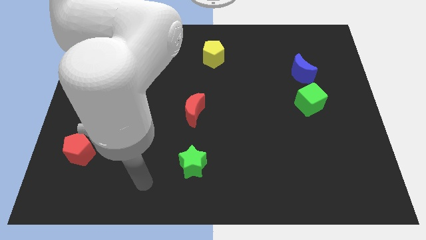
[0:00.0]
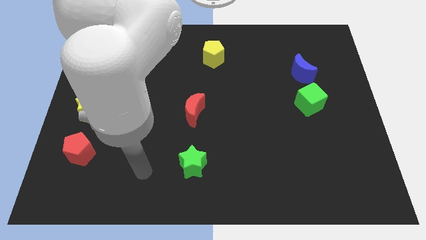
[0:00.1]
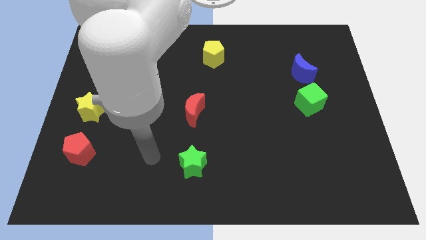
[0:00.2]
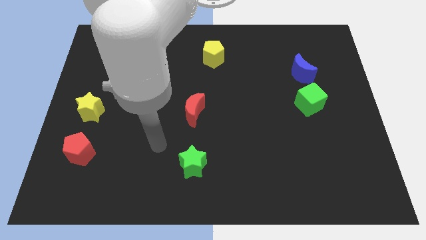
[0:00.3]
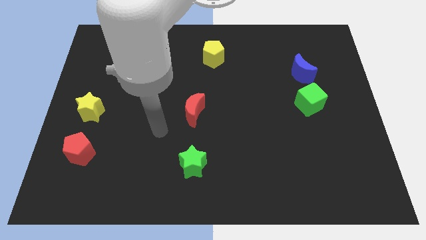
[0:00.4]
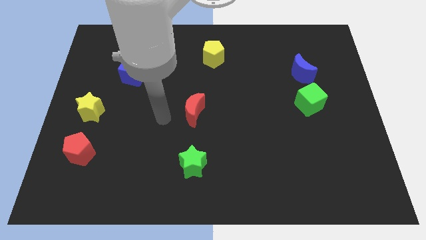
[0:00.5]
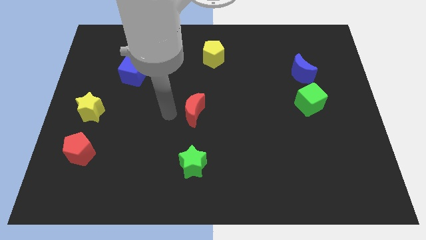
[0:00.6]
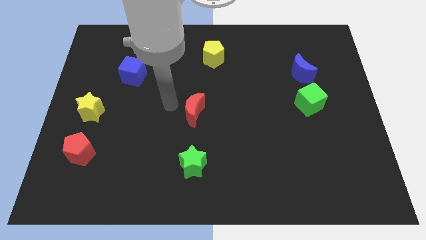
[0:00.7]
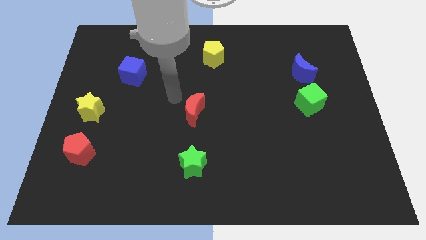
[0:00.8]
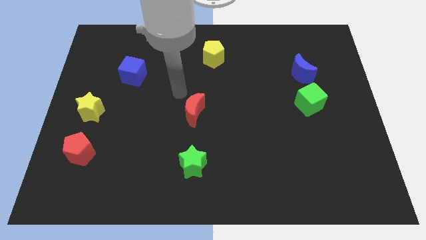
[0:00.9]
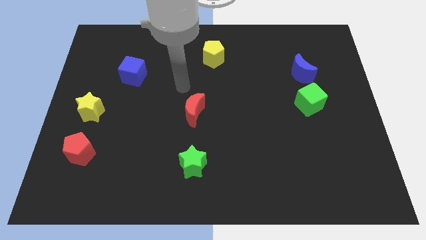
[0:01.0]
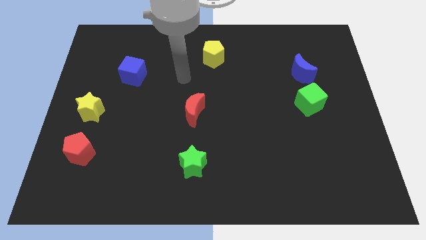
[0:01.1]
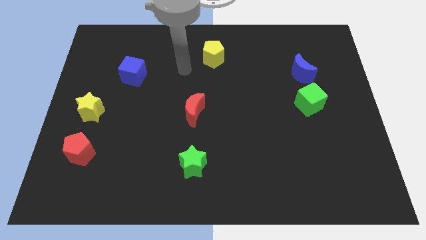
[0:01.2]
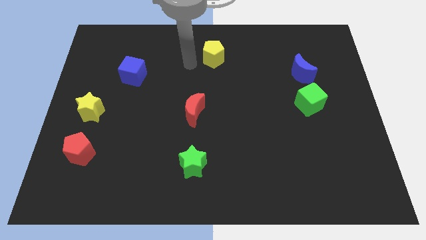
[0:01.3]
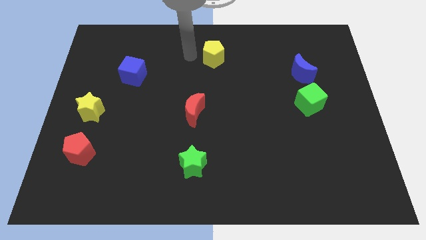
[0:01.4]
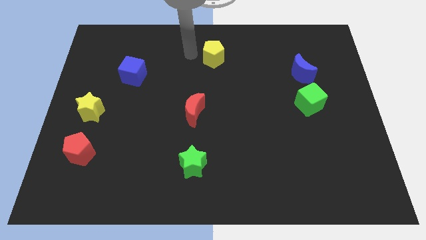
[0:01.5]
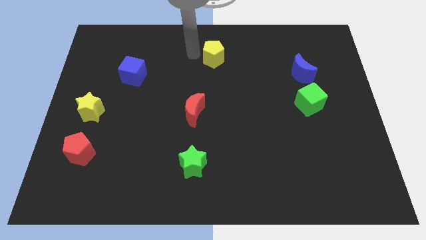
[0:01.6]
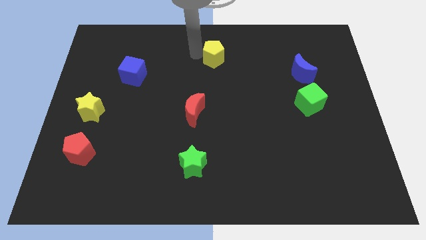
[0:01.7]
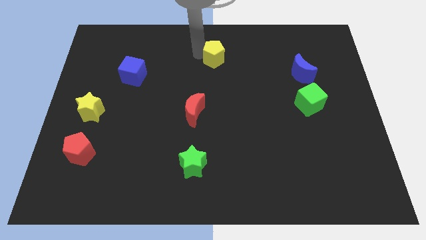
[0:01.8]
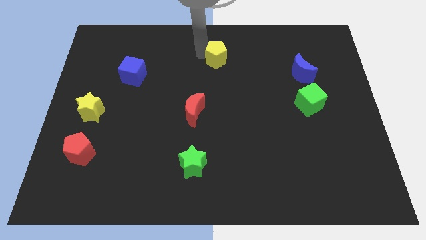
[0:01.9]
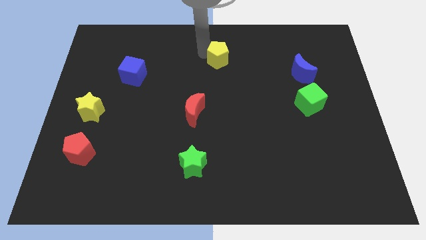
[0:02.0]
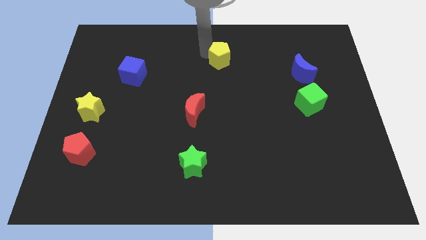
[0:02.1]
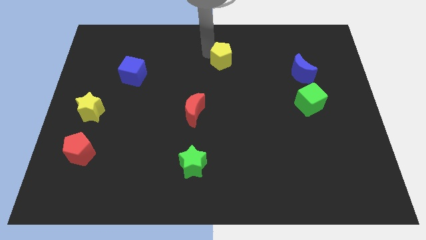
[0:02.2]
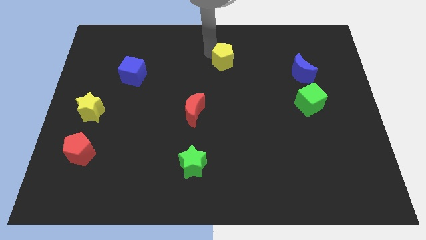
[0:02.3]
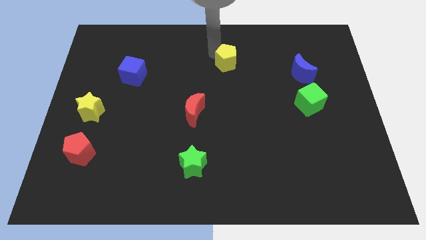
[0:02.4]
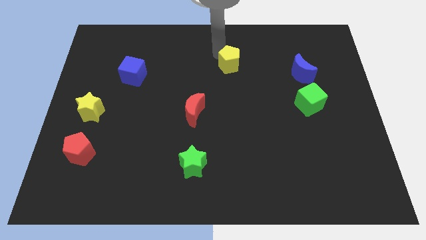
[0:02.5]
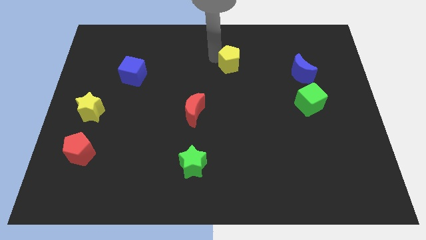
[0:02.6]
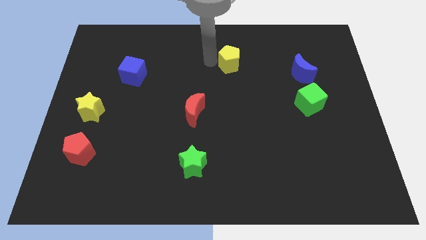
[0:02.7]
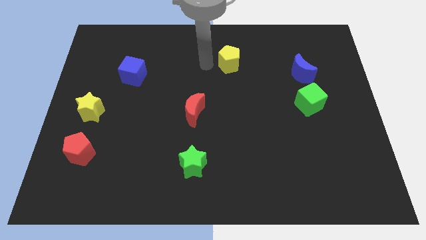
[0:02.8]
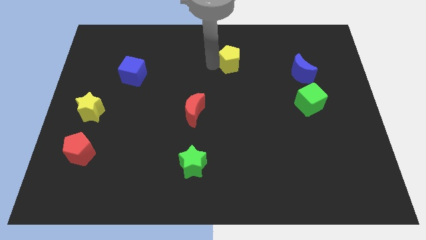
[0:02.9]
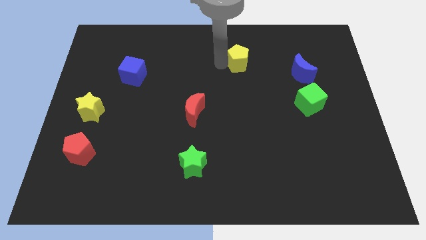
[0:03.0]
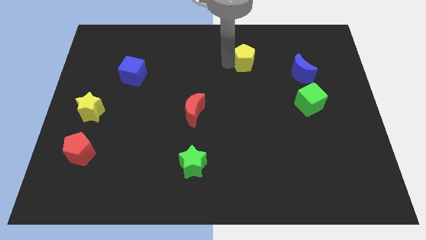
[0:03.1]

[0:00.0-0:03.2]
push the yellow pentagon right a little bit

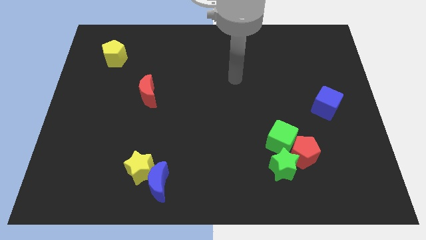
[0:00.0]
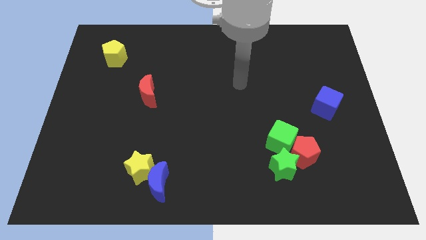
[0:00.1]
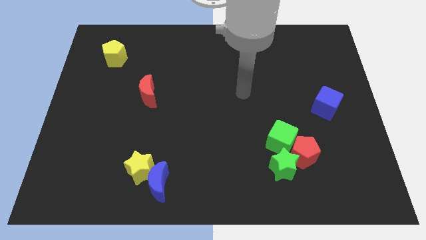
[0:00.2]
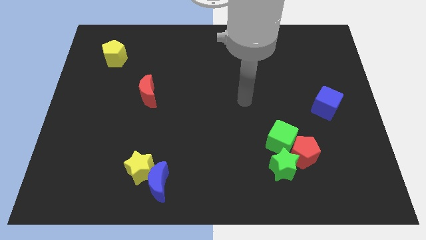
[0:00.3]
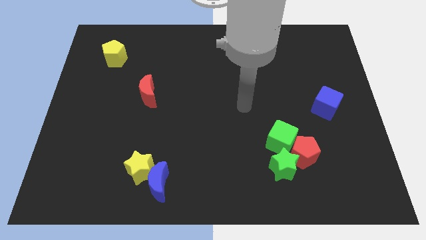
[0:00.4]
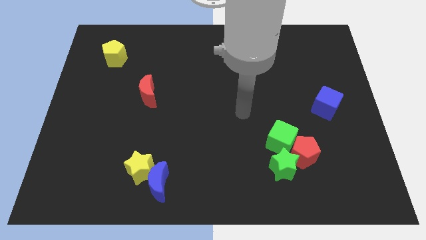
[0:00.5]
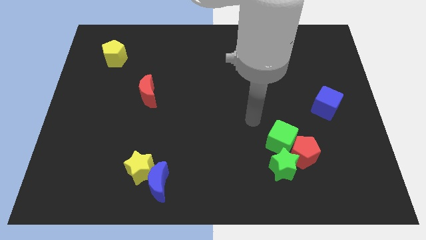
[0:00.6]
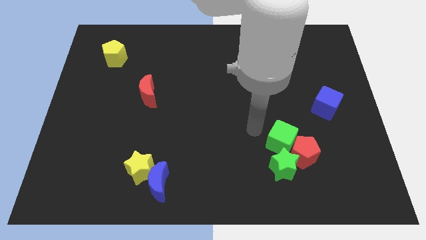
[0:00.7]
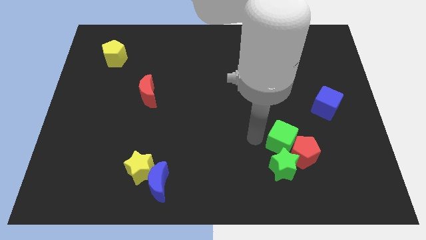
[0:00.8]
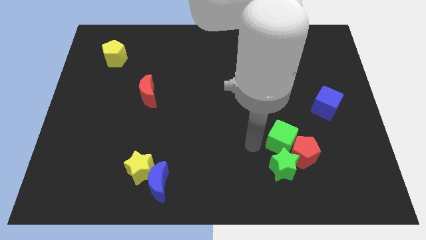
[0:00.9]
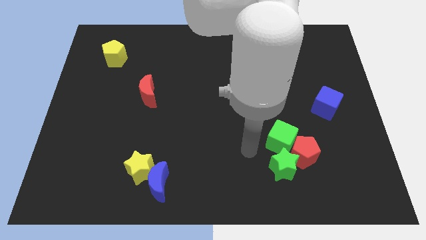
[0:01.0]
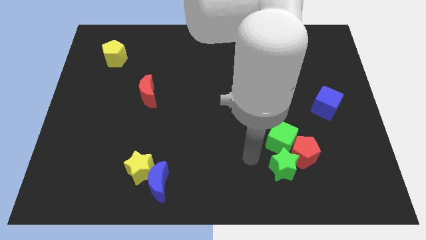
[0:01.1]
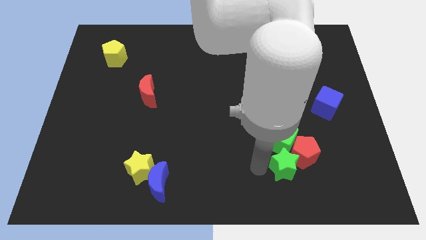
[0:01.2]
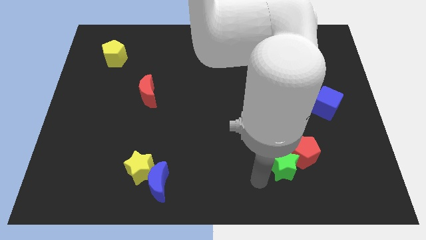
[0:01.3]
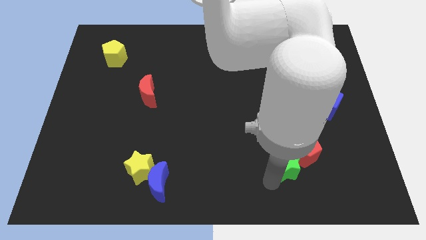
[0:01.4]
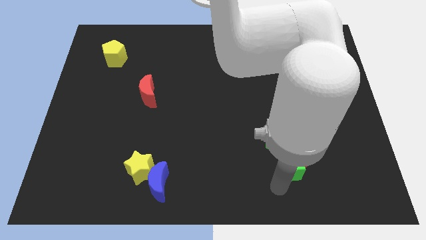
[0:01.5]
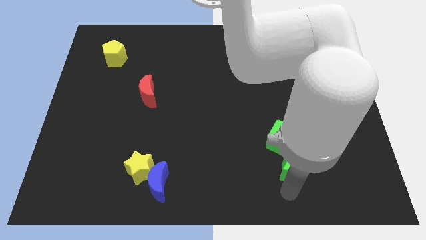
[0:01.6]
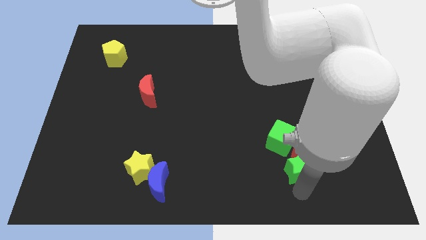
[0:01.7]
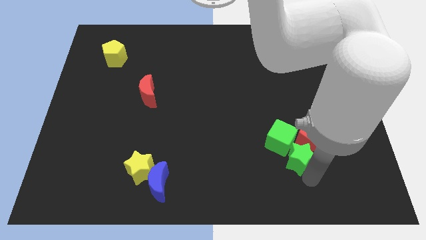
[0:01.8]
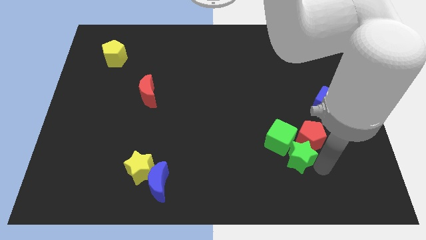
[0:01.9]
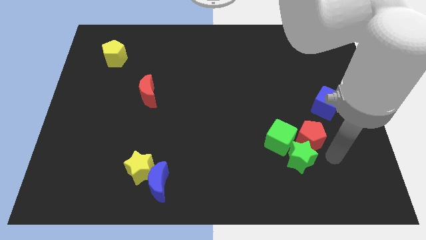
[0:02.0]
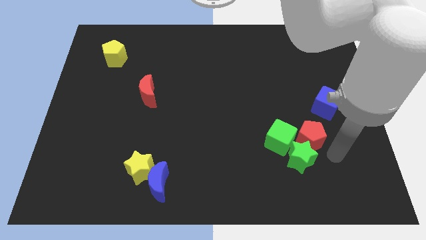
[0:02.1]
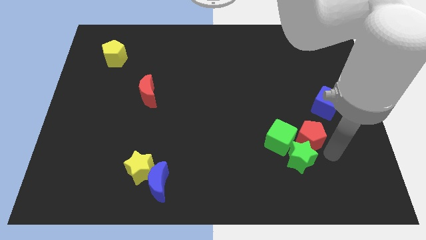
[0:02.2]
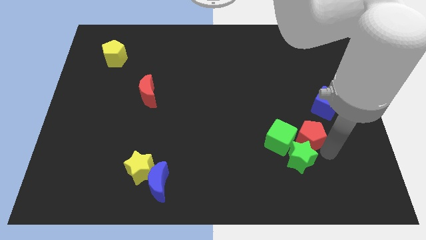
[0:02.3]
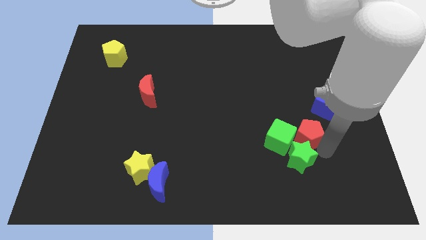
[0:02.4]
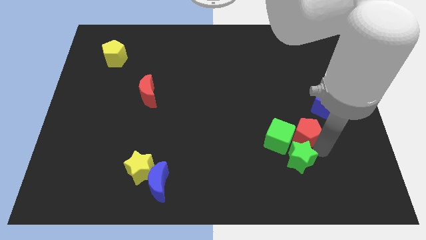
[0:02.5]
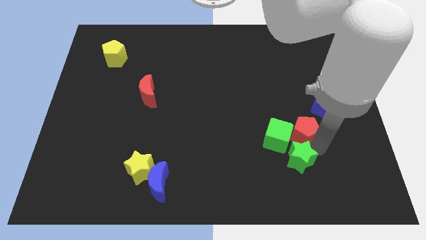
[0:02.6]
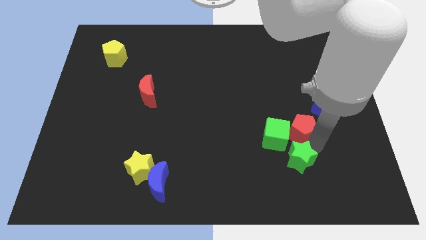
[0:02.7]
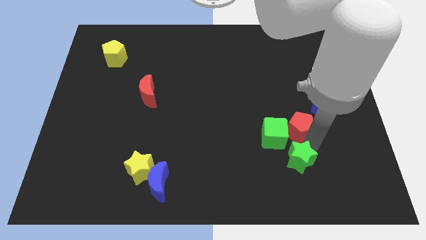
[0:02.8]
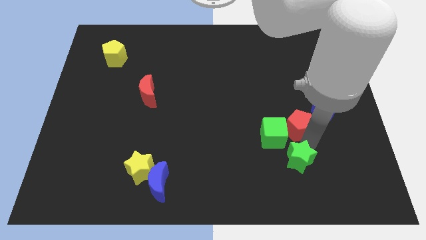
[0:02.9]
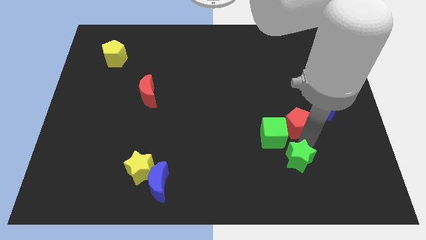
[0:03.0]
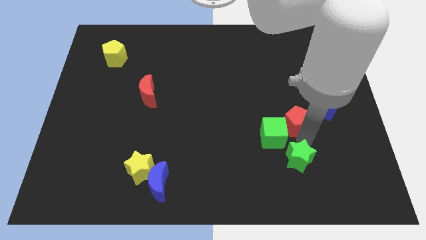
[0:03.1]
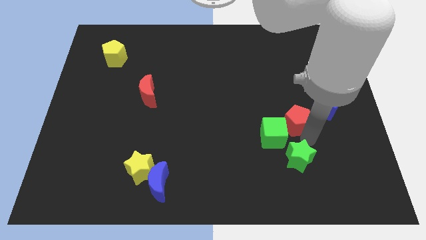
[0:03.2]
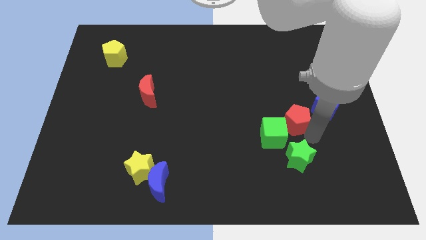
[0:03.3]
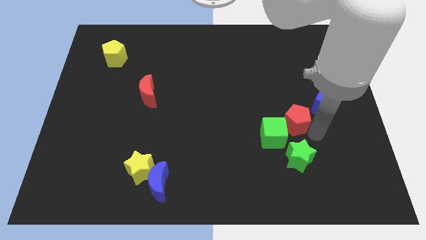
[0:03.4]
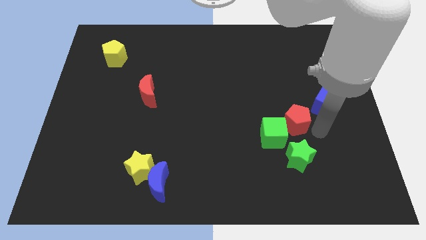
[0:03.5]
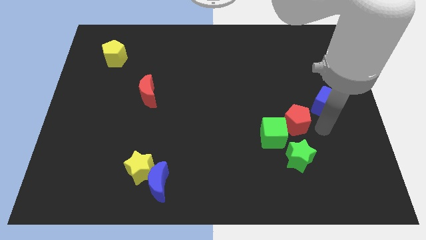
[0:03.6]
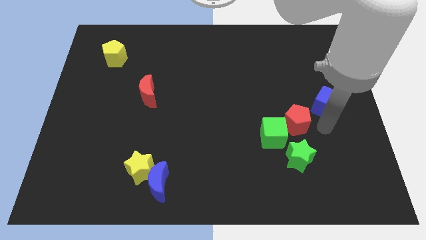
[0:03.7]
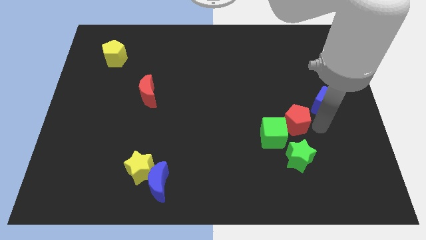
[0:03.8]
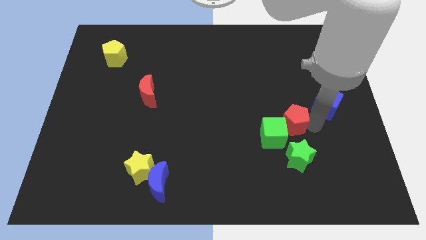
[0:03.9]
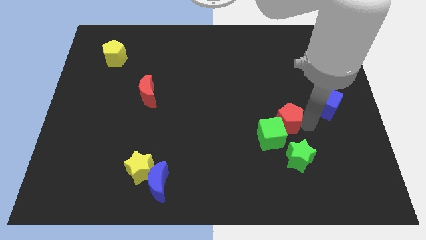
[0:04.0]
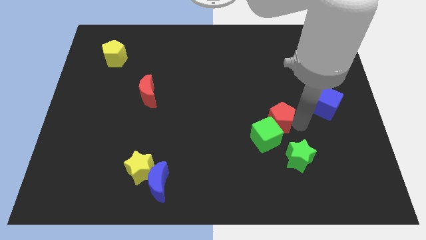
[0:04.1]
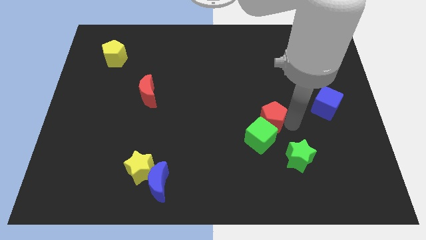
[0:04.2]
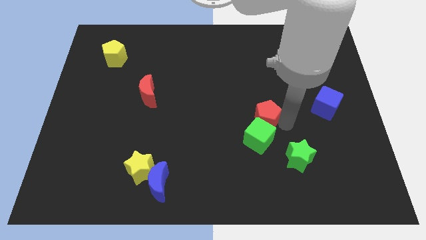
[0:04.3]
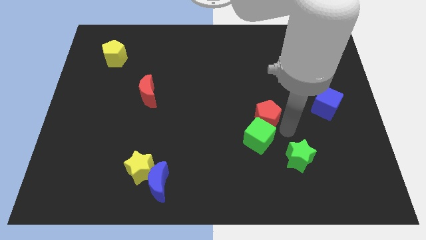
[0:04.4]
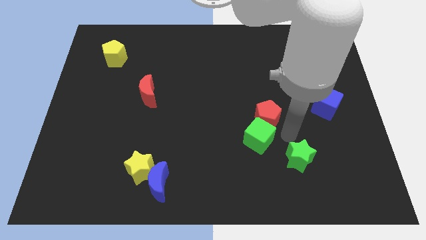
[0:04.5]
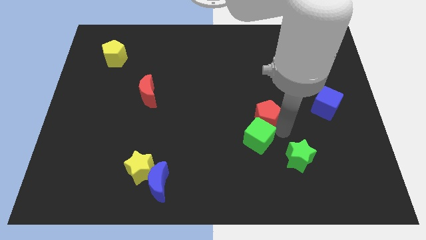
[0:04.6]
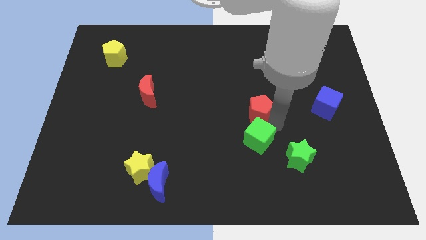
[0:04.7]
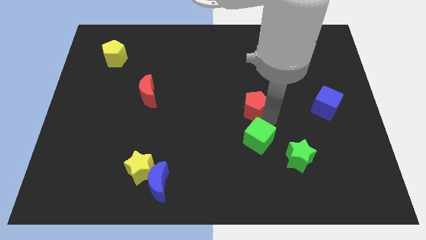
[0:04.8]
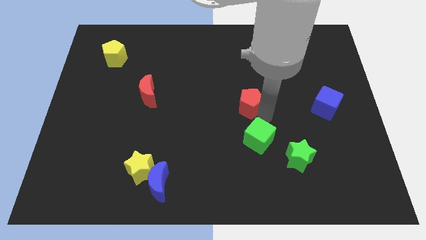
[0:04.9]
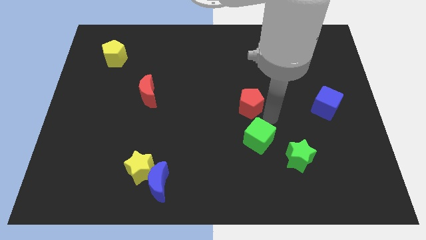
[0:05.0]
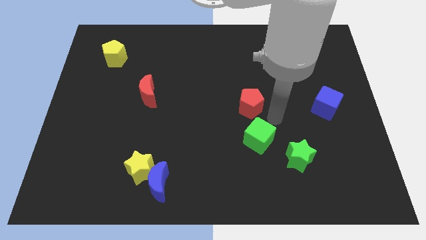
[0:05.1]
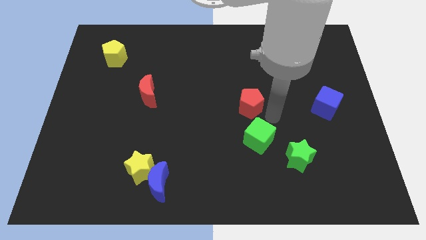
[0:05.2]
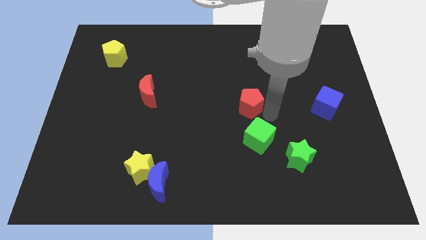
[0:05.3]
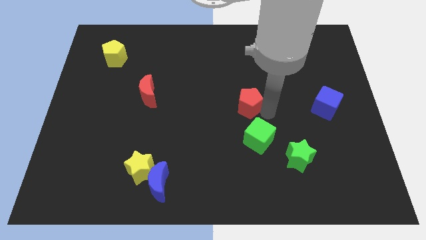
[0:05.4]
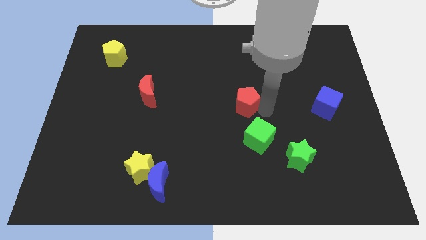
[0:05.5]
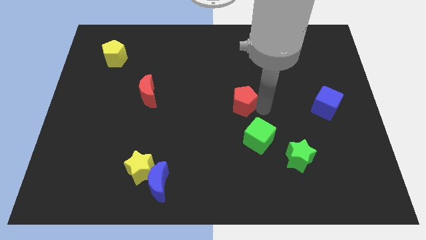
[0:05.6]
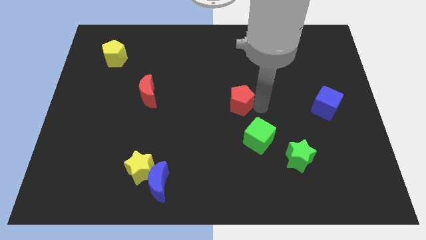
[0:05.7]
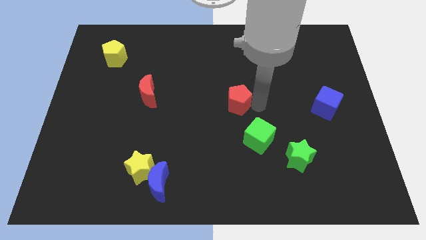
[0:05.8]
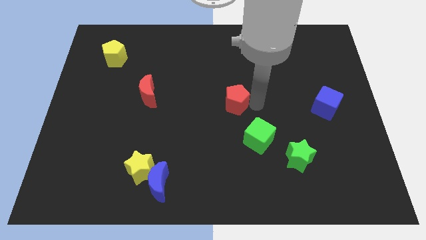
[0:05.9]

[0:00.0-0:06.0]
move the red pentagon upwards and then left
